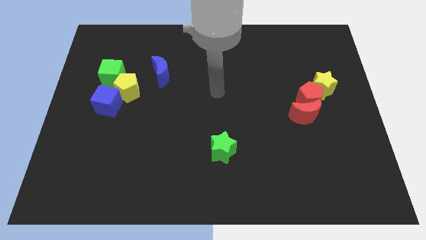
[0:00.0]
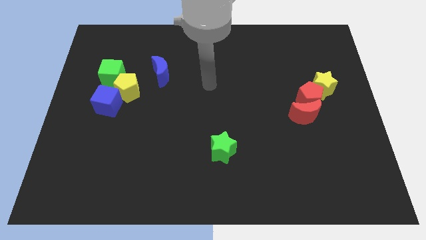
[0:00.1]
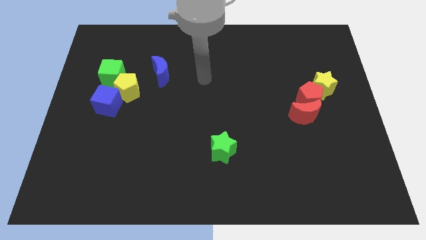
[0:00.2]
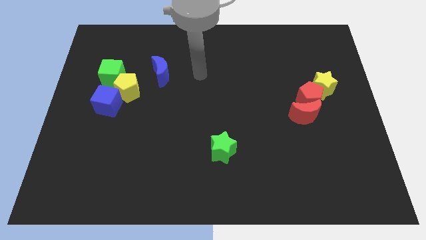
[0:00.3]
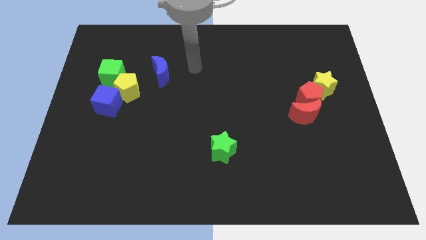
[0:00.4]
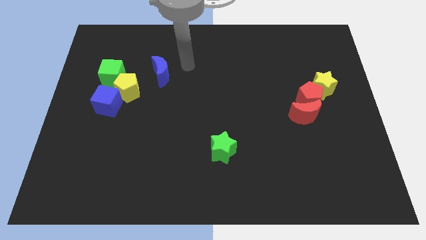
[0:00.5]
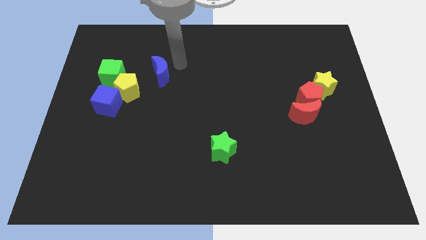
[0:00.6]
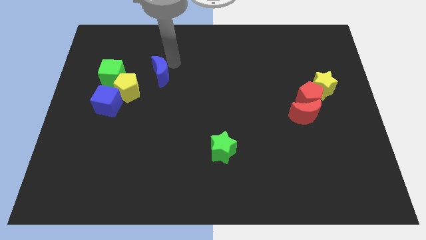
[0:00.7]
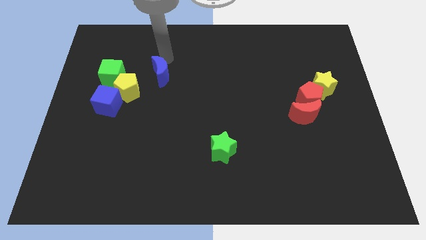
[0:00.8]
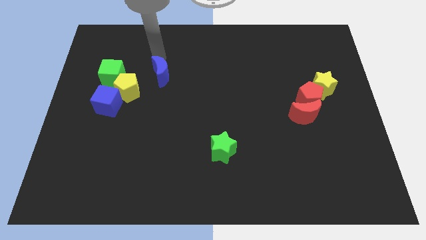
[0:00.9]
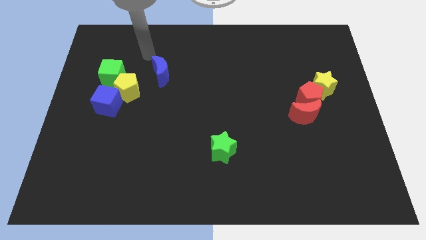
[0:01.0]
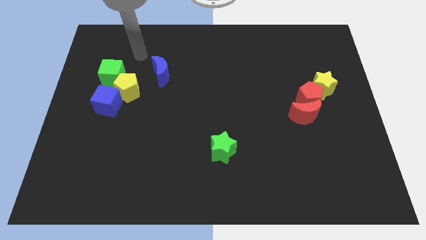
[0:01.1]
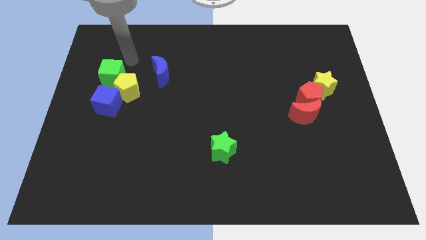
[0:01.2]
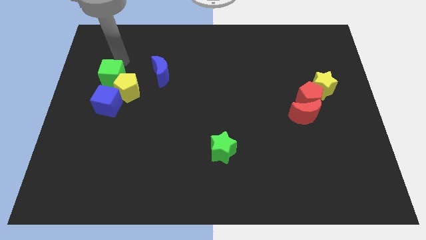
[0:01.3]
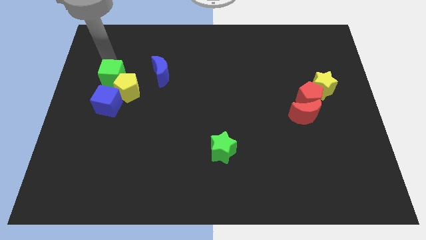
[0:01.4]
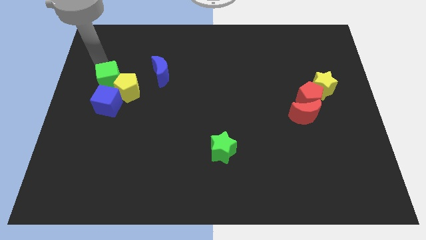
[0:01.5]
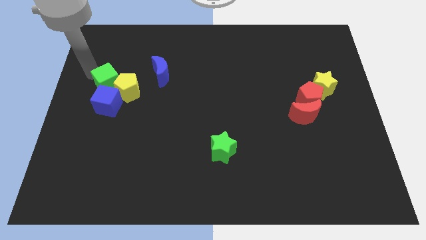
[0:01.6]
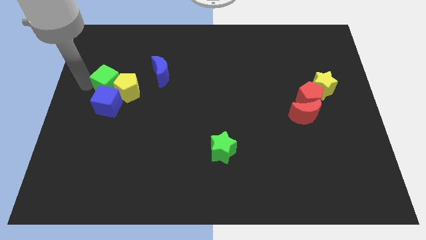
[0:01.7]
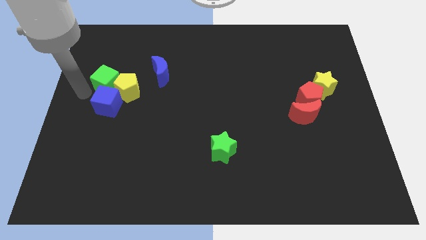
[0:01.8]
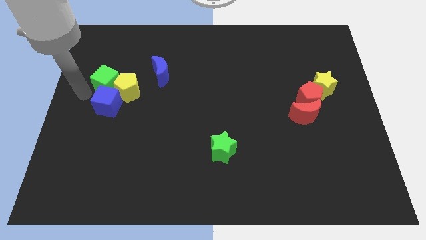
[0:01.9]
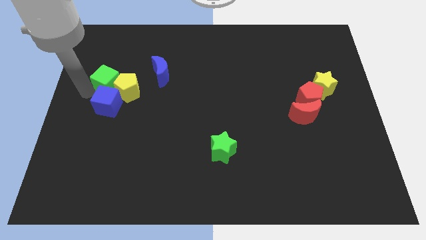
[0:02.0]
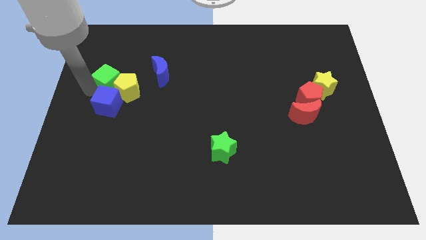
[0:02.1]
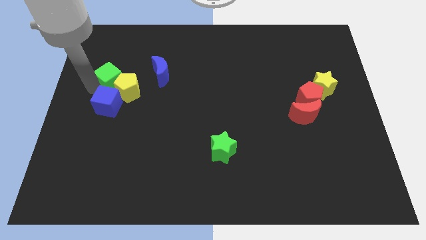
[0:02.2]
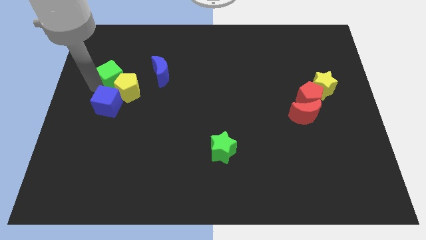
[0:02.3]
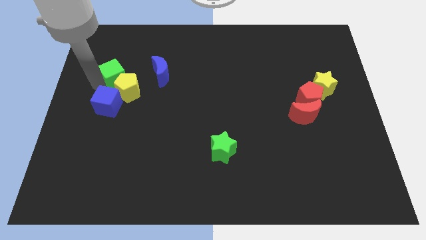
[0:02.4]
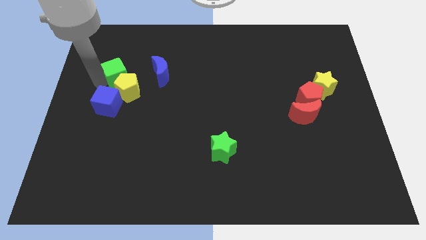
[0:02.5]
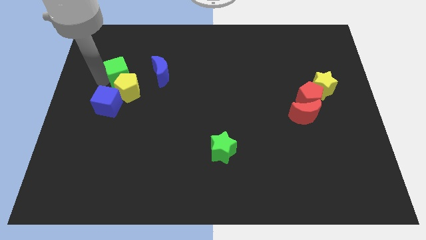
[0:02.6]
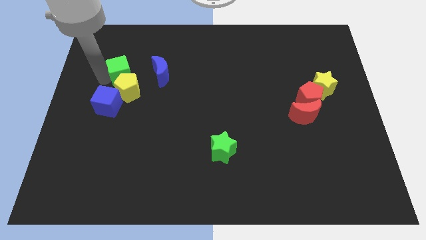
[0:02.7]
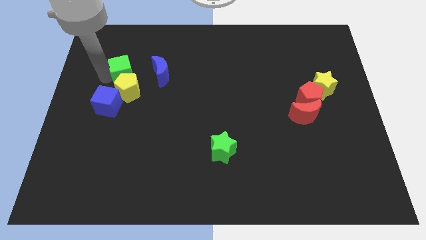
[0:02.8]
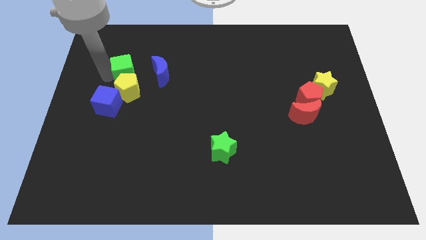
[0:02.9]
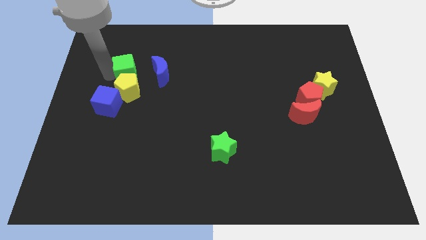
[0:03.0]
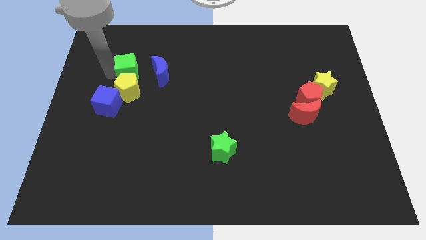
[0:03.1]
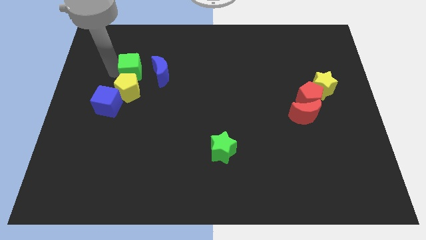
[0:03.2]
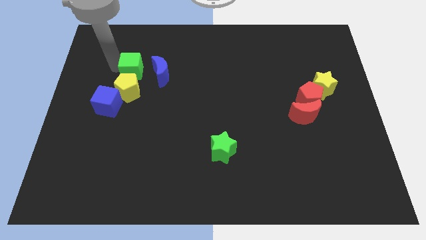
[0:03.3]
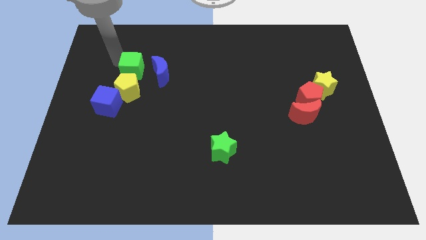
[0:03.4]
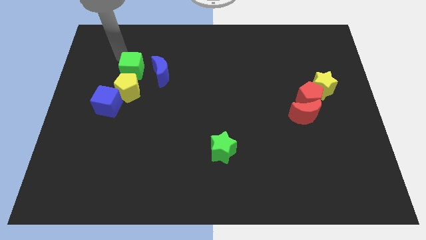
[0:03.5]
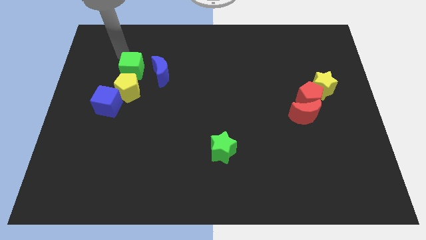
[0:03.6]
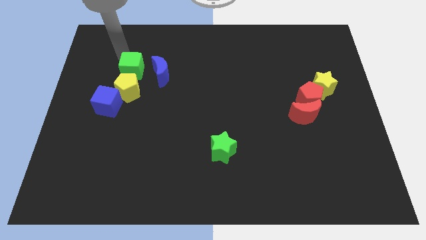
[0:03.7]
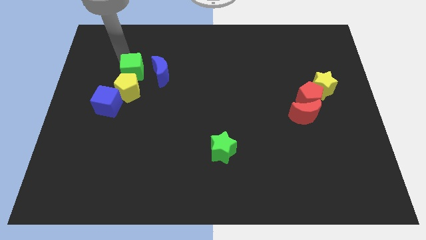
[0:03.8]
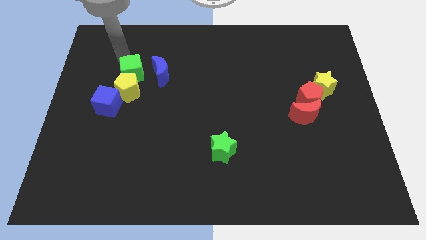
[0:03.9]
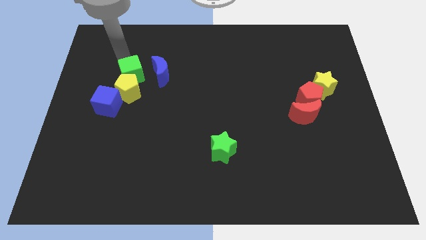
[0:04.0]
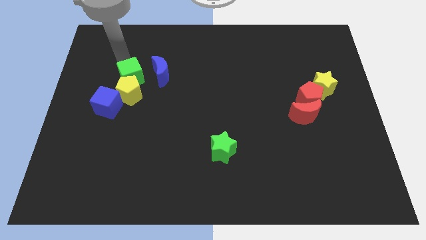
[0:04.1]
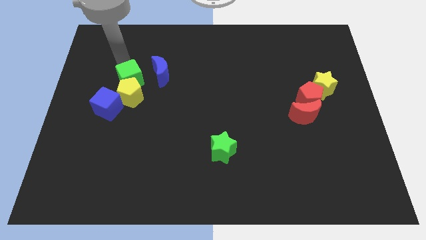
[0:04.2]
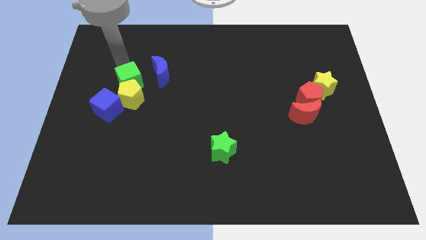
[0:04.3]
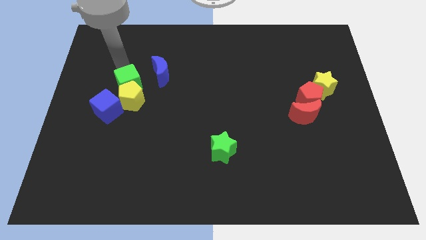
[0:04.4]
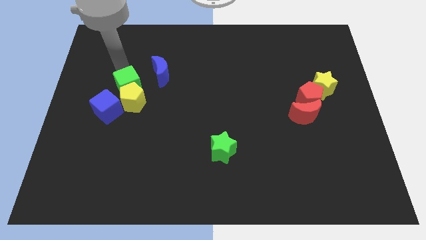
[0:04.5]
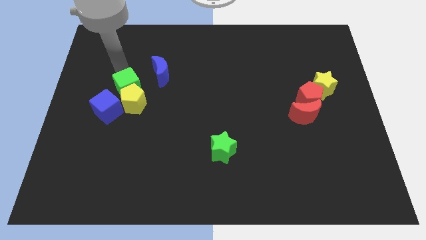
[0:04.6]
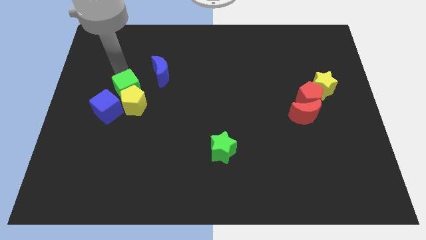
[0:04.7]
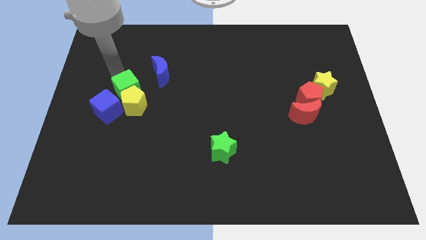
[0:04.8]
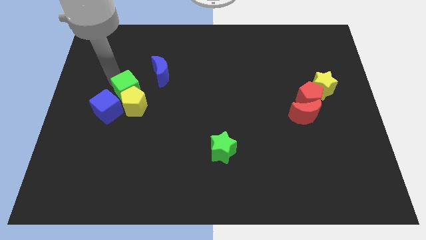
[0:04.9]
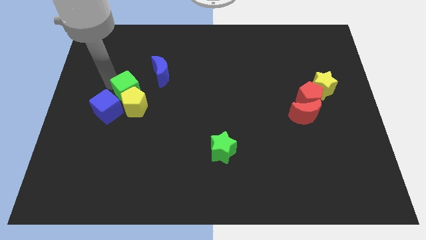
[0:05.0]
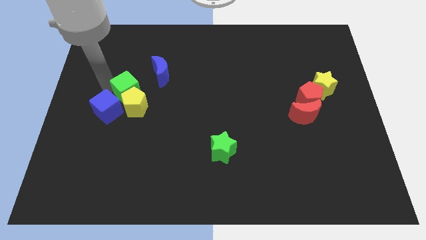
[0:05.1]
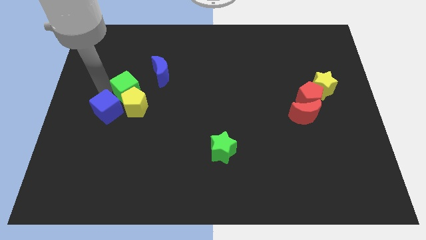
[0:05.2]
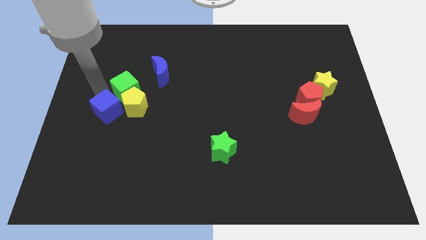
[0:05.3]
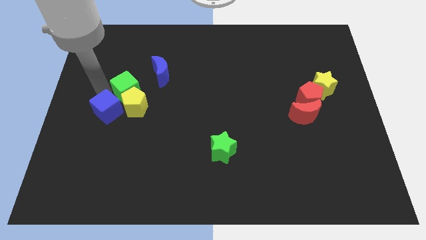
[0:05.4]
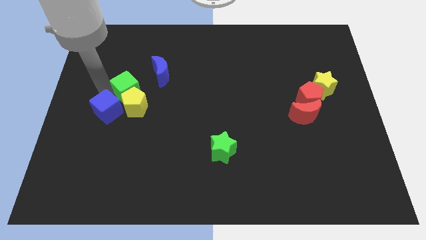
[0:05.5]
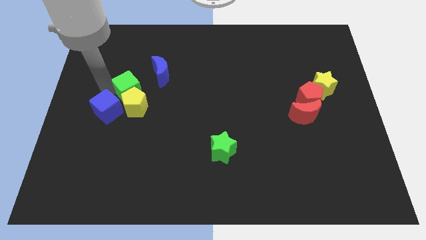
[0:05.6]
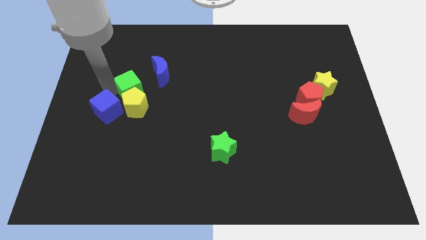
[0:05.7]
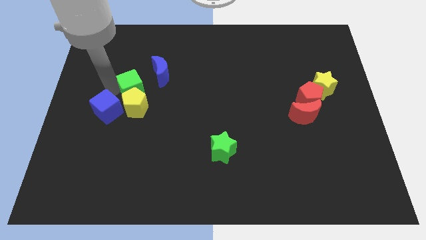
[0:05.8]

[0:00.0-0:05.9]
slide the green cube downwards and right slightly

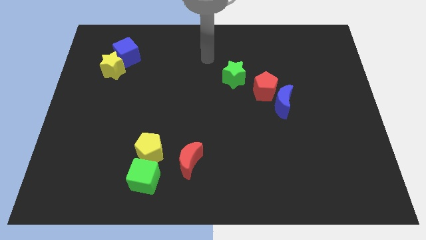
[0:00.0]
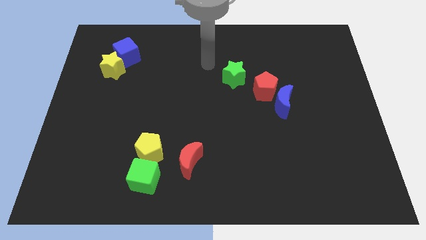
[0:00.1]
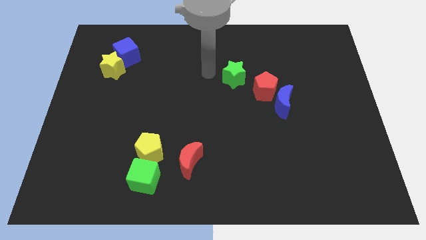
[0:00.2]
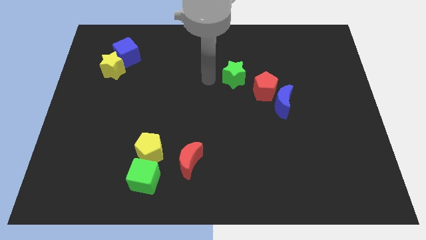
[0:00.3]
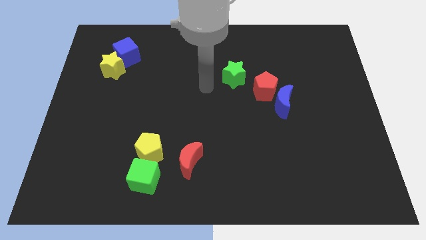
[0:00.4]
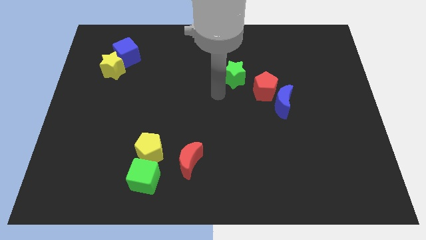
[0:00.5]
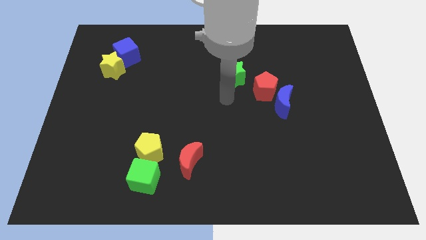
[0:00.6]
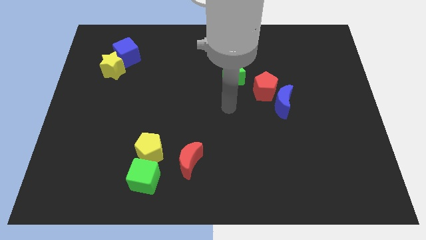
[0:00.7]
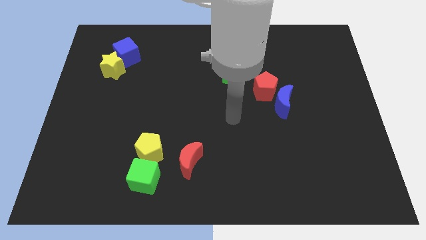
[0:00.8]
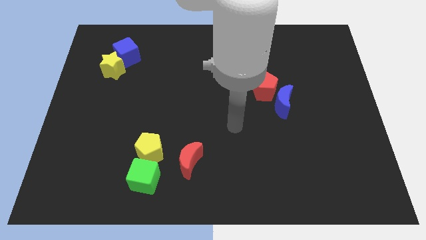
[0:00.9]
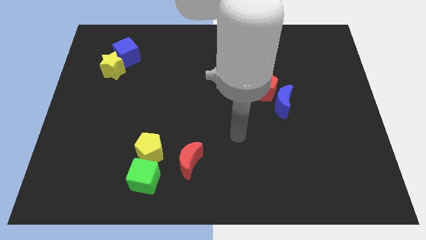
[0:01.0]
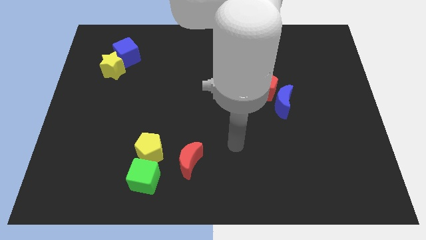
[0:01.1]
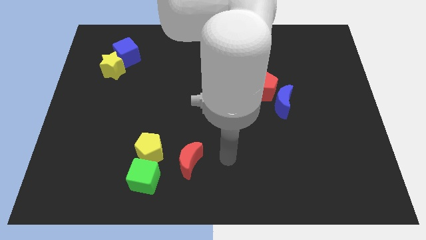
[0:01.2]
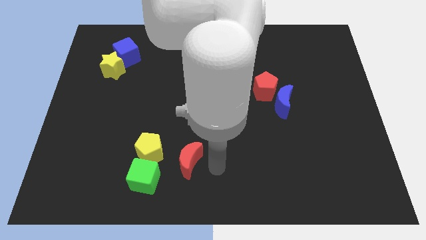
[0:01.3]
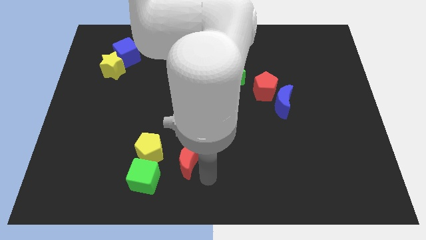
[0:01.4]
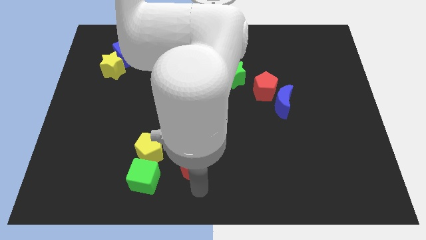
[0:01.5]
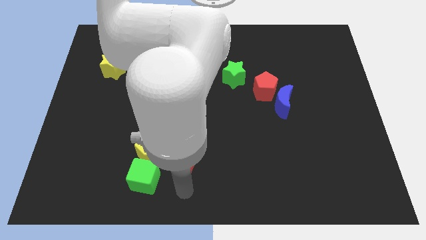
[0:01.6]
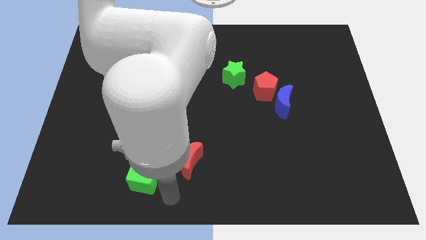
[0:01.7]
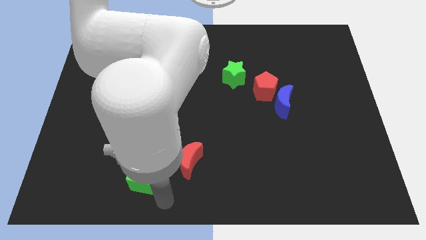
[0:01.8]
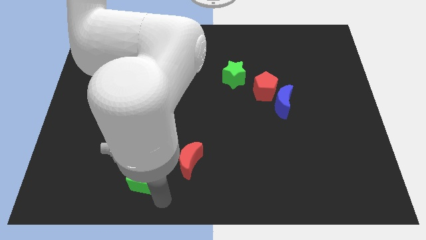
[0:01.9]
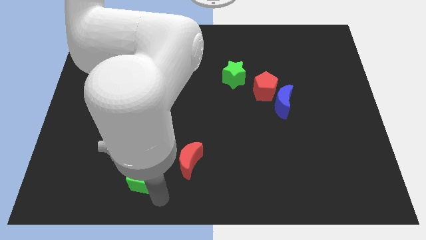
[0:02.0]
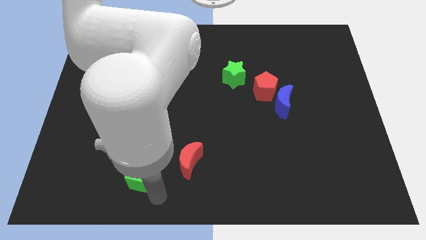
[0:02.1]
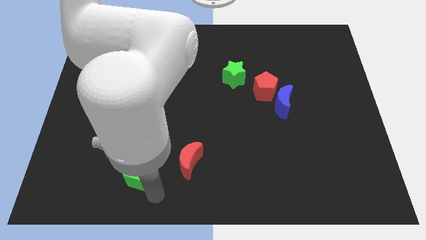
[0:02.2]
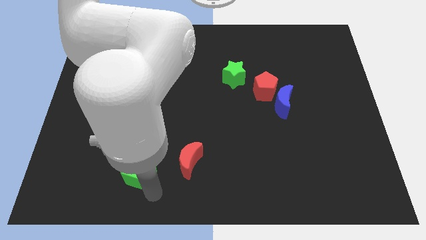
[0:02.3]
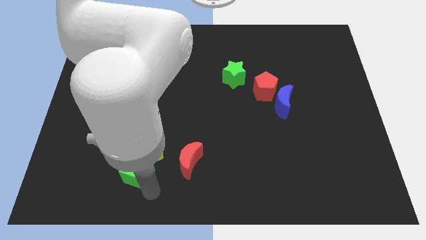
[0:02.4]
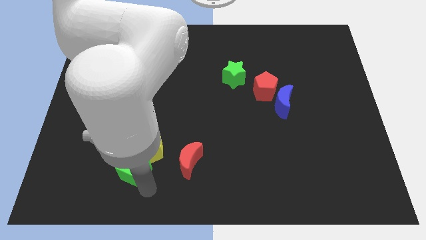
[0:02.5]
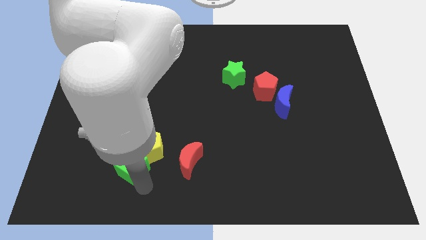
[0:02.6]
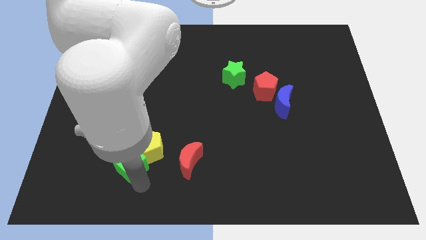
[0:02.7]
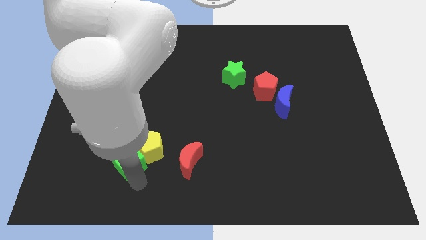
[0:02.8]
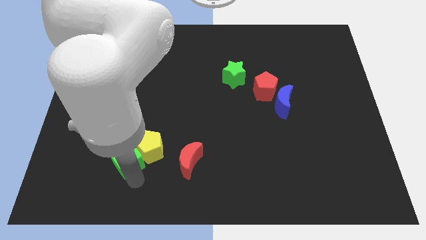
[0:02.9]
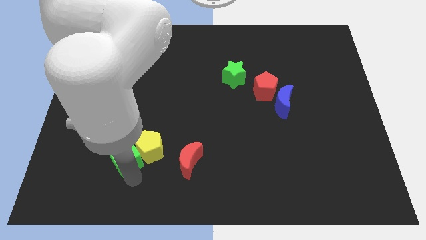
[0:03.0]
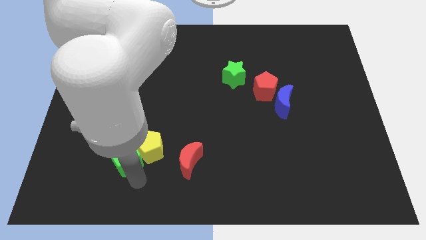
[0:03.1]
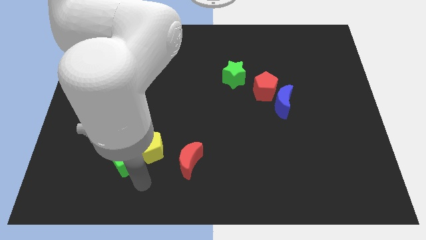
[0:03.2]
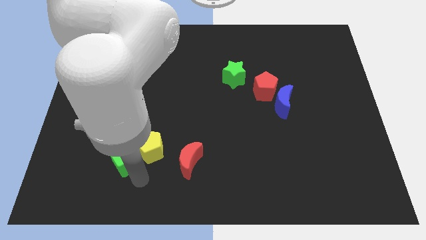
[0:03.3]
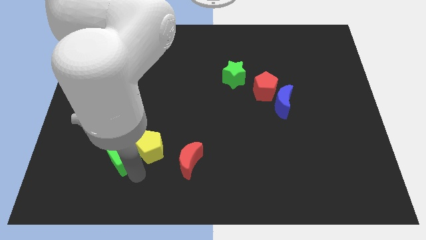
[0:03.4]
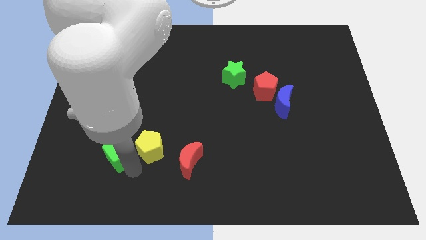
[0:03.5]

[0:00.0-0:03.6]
push the green cube slightly upwards and left diagonally
